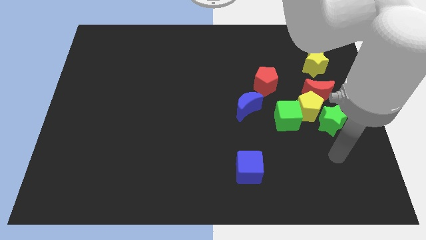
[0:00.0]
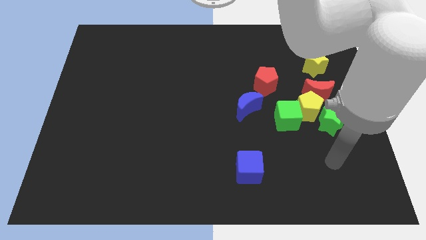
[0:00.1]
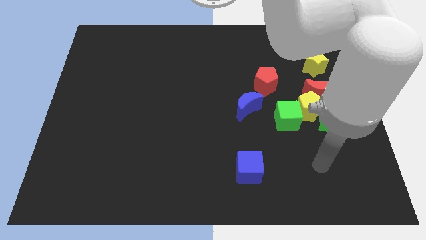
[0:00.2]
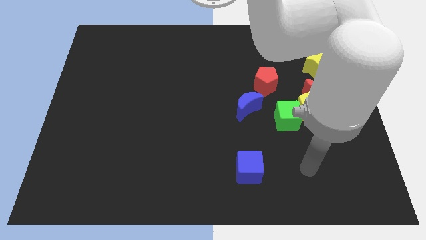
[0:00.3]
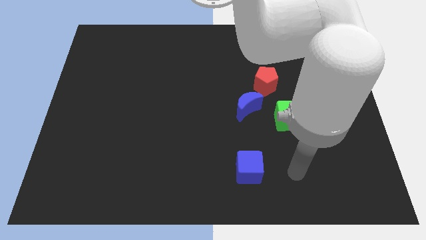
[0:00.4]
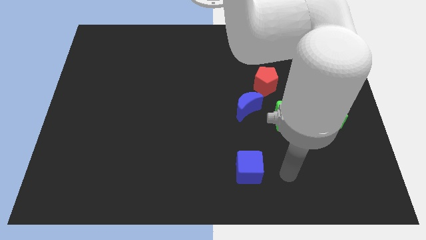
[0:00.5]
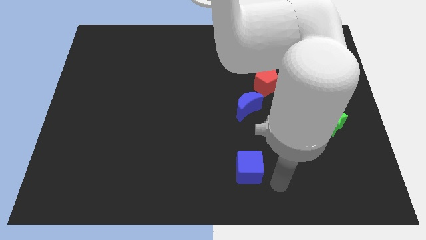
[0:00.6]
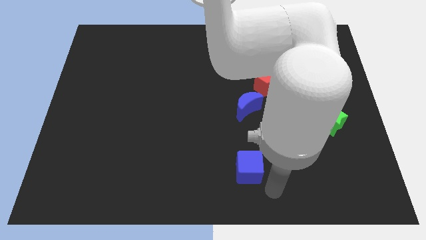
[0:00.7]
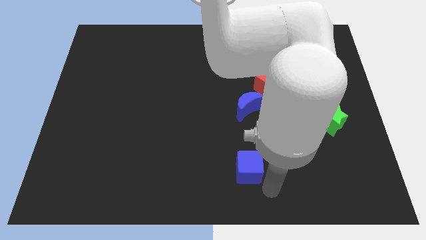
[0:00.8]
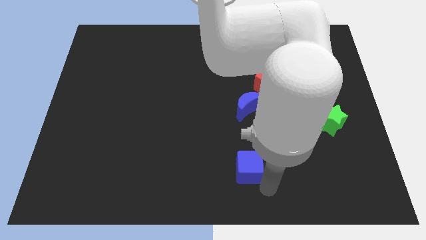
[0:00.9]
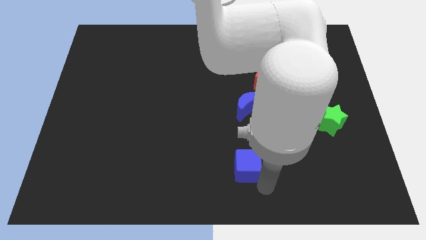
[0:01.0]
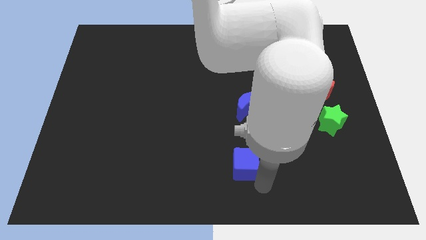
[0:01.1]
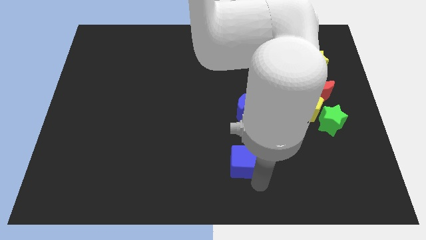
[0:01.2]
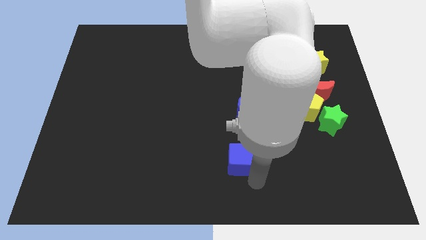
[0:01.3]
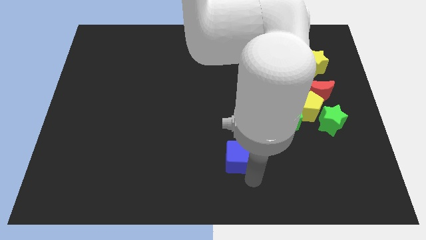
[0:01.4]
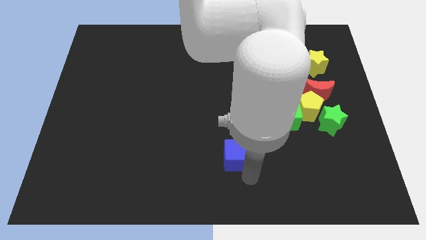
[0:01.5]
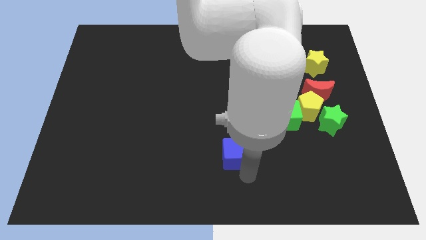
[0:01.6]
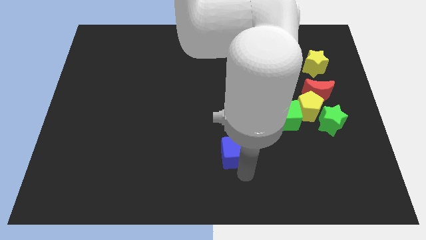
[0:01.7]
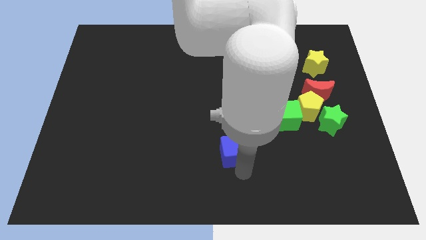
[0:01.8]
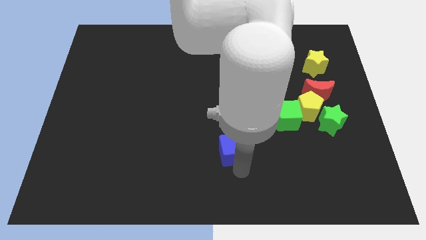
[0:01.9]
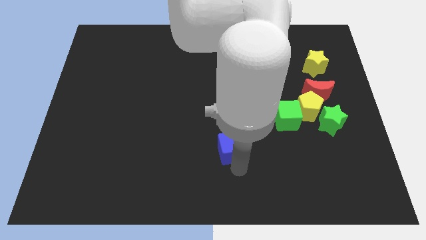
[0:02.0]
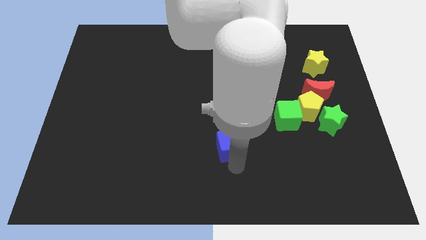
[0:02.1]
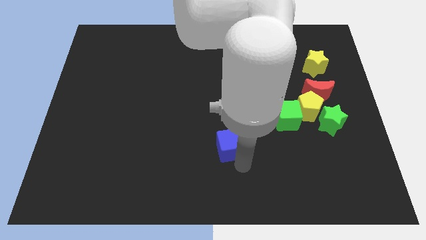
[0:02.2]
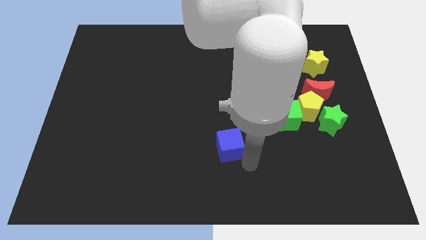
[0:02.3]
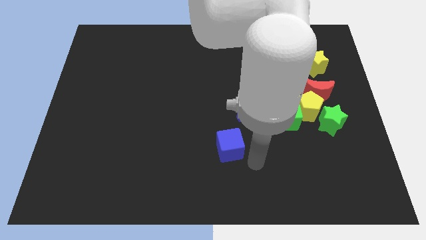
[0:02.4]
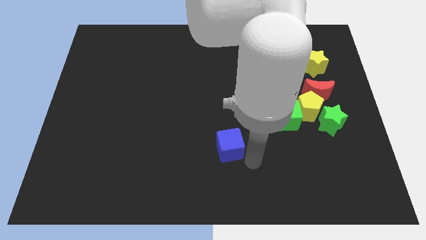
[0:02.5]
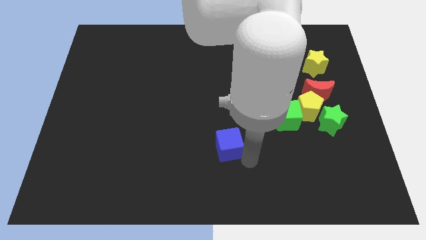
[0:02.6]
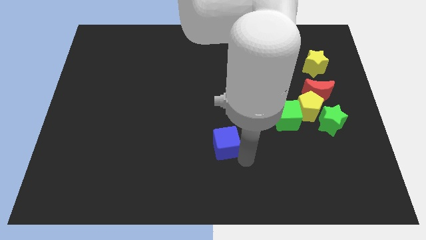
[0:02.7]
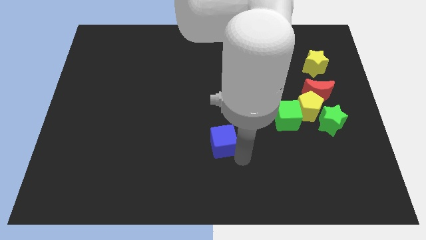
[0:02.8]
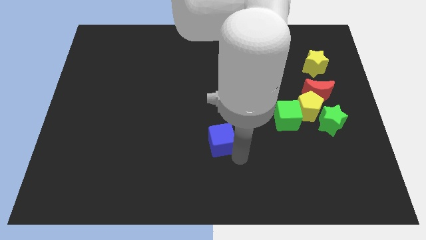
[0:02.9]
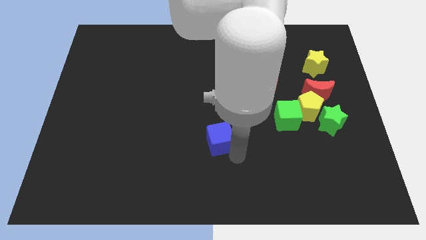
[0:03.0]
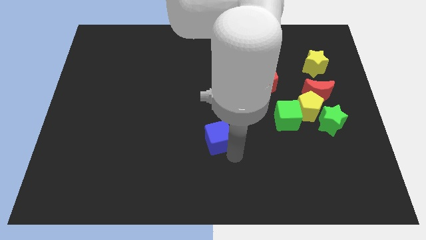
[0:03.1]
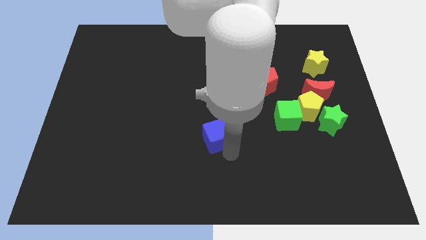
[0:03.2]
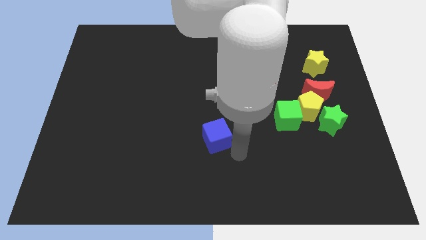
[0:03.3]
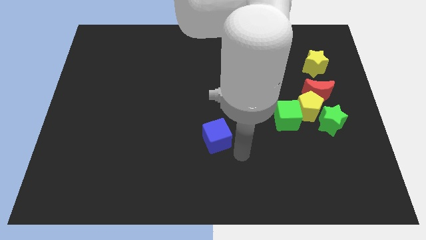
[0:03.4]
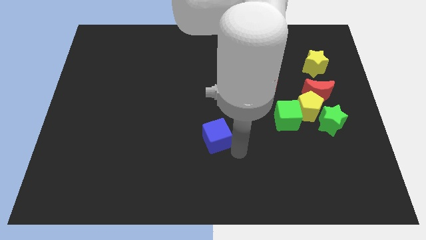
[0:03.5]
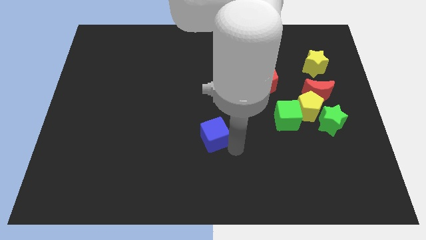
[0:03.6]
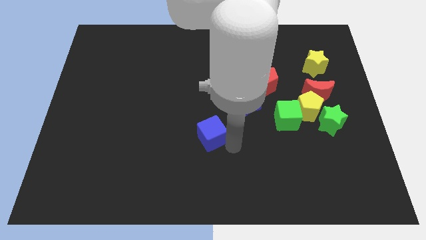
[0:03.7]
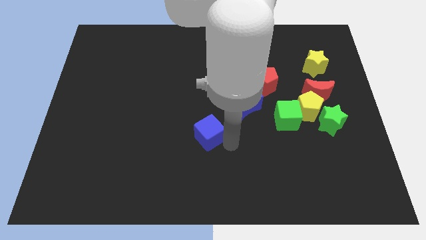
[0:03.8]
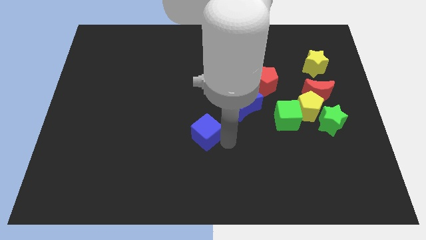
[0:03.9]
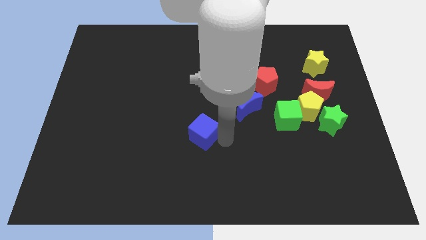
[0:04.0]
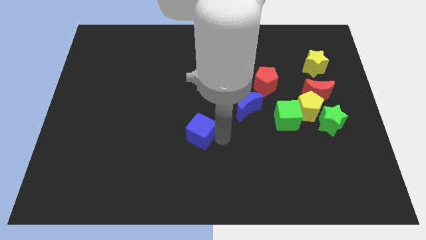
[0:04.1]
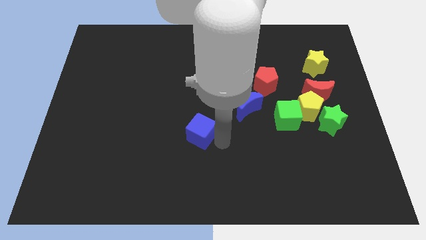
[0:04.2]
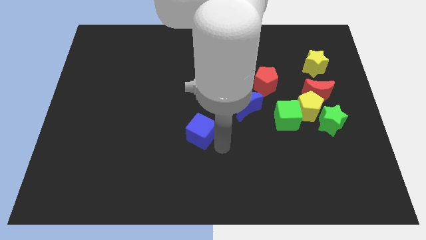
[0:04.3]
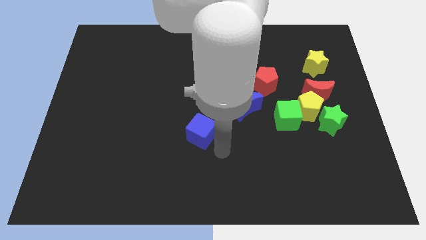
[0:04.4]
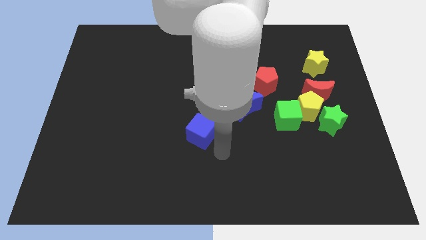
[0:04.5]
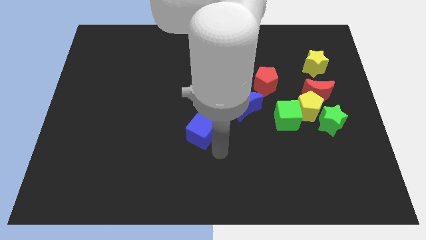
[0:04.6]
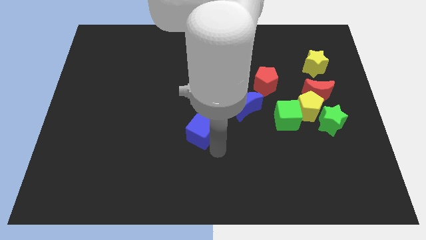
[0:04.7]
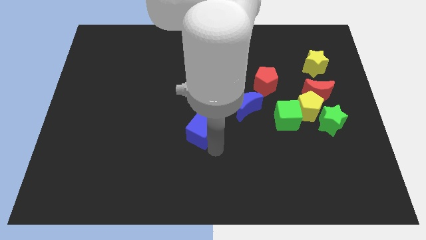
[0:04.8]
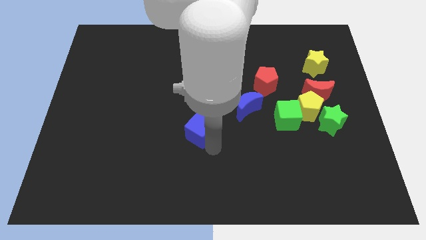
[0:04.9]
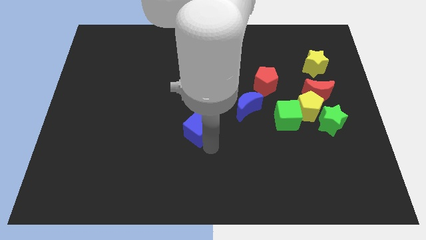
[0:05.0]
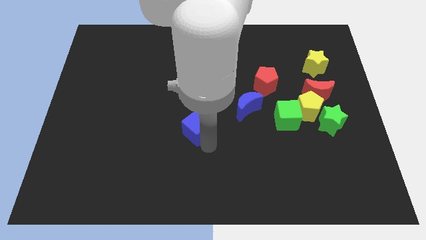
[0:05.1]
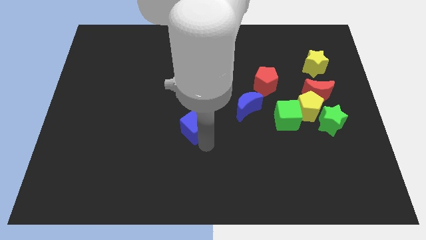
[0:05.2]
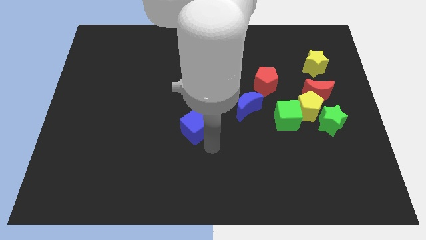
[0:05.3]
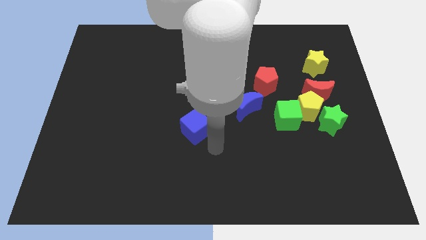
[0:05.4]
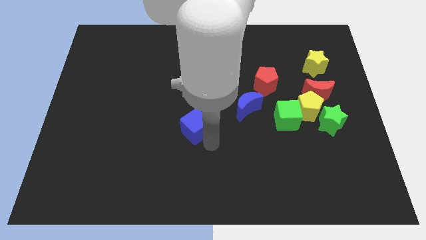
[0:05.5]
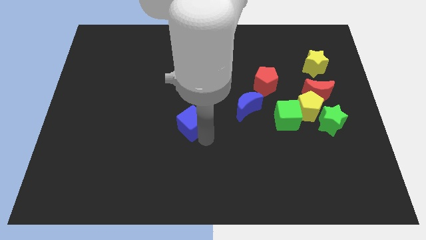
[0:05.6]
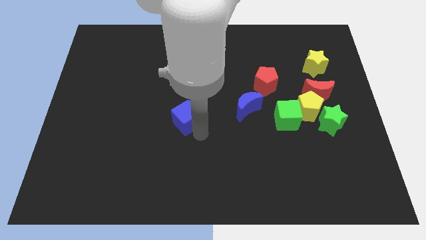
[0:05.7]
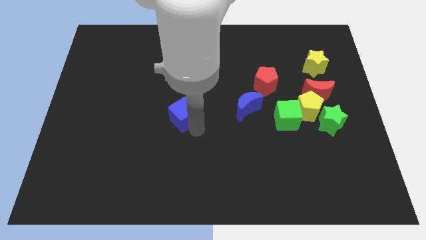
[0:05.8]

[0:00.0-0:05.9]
push the blue cube diagonally up and to the left

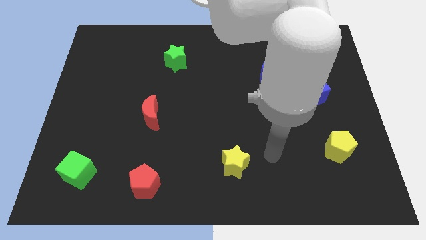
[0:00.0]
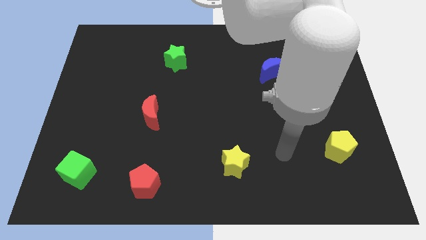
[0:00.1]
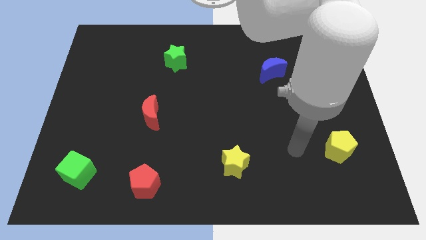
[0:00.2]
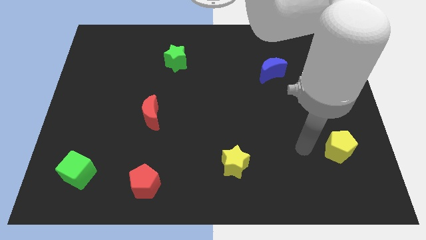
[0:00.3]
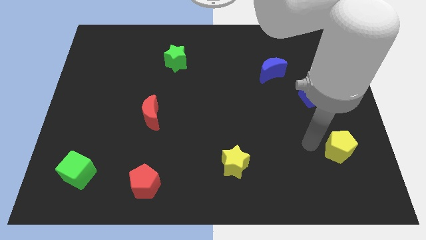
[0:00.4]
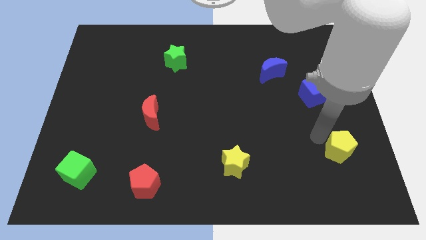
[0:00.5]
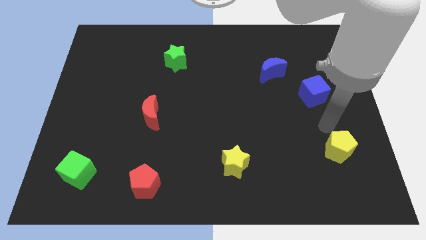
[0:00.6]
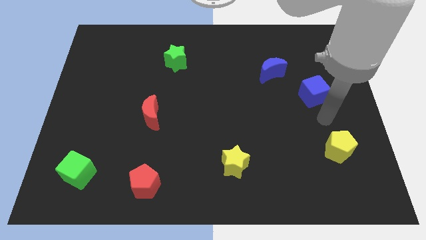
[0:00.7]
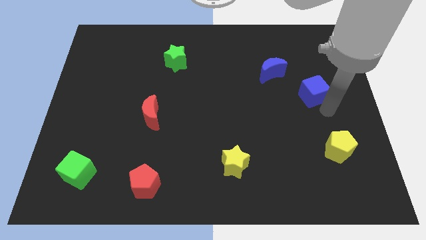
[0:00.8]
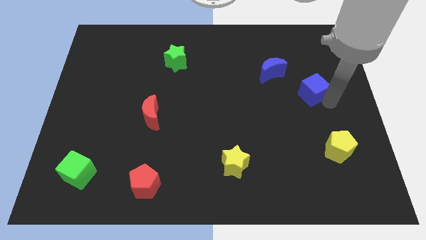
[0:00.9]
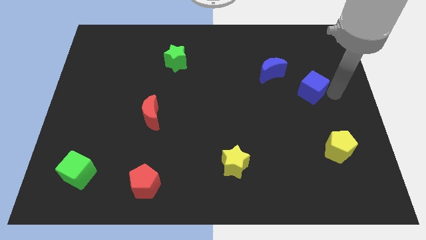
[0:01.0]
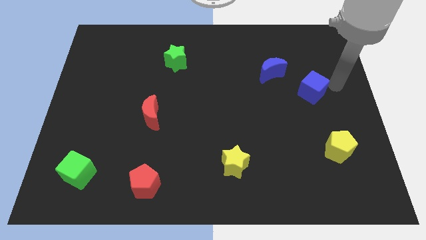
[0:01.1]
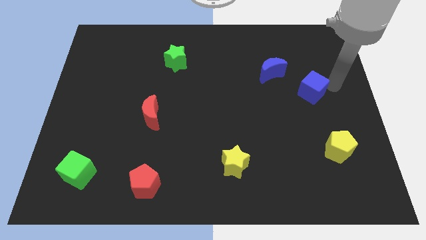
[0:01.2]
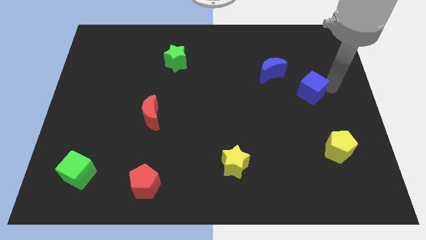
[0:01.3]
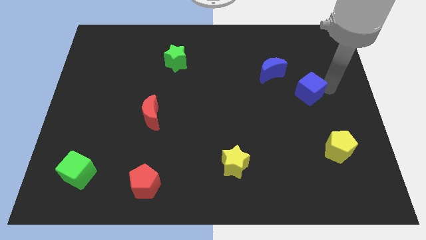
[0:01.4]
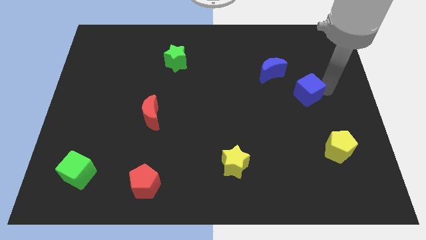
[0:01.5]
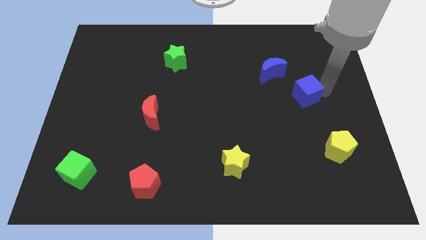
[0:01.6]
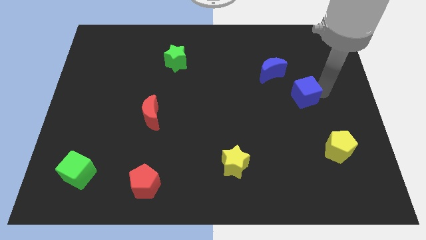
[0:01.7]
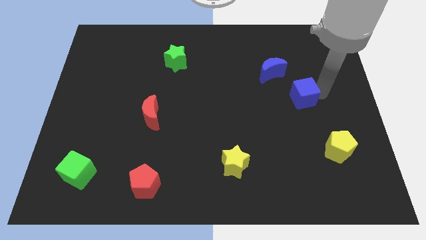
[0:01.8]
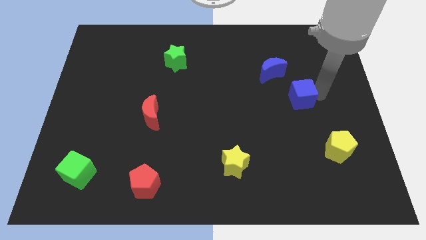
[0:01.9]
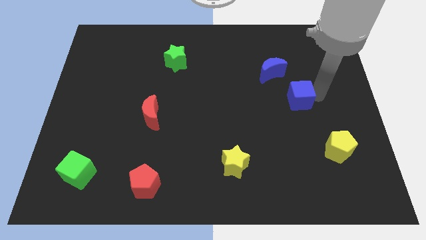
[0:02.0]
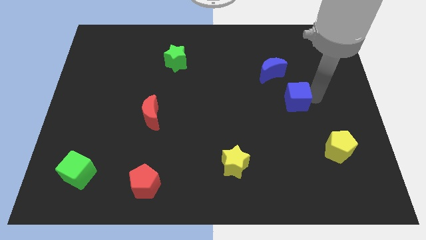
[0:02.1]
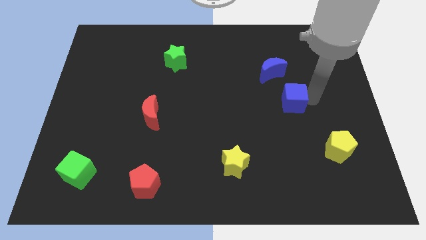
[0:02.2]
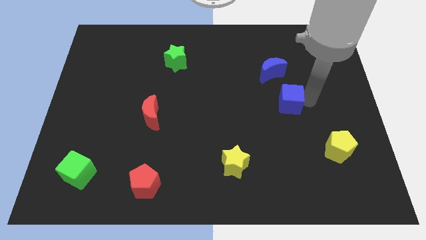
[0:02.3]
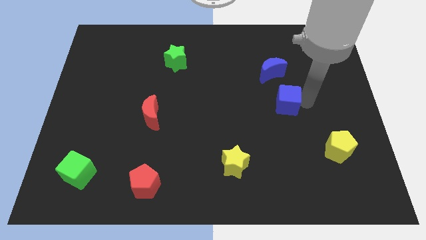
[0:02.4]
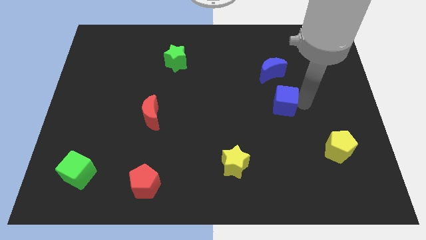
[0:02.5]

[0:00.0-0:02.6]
slightly move the blue cube to the left

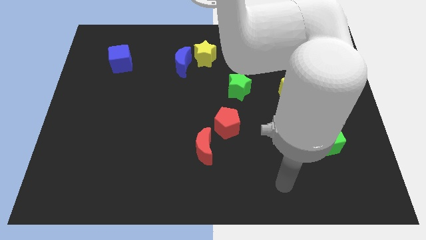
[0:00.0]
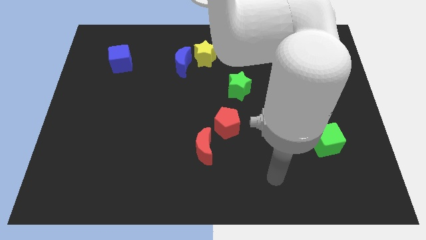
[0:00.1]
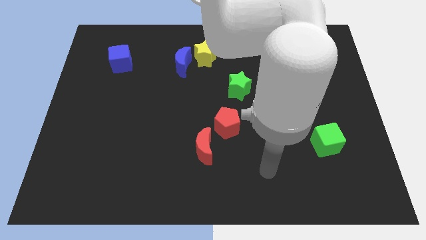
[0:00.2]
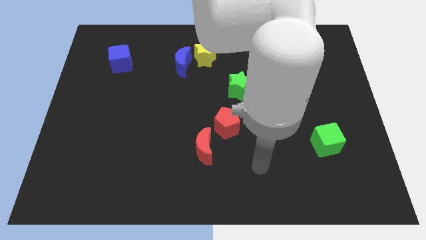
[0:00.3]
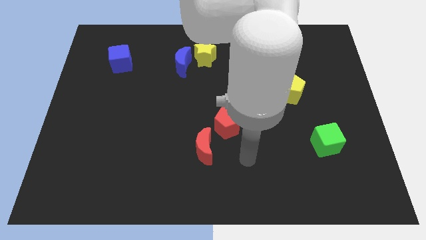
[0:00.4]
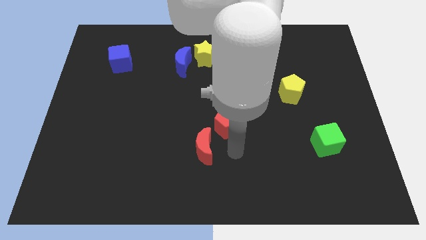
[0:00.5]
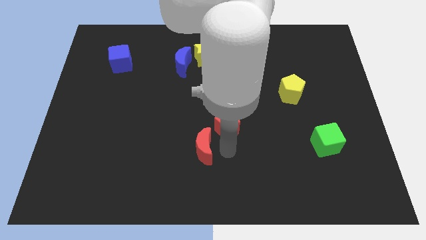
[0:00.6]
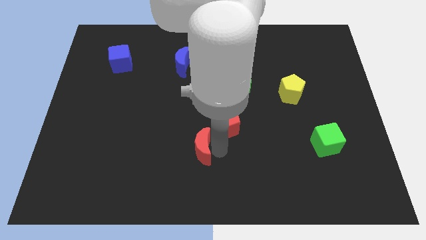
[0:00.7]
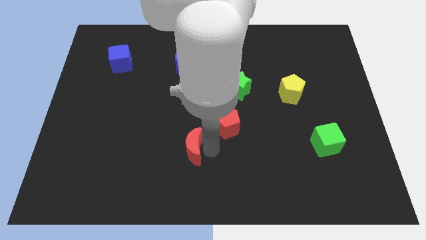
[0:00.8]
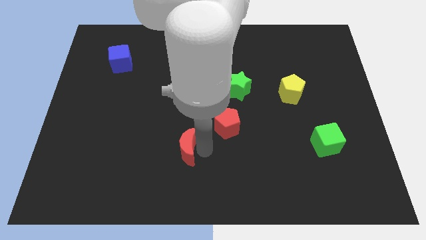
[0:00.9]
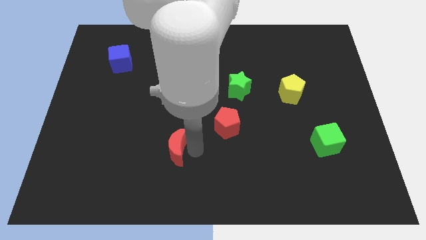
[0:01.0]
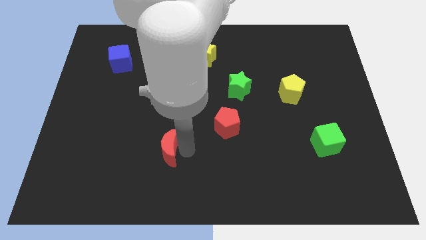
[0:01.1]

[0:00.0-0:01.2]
slide the red moon somewhat to the left
